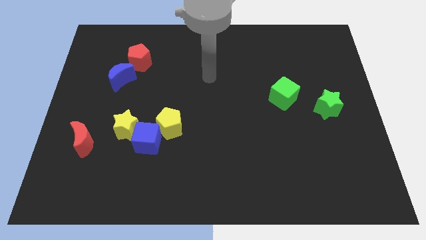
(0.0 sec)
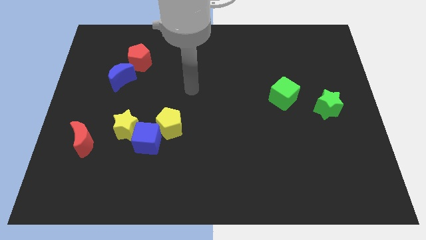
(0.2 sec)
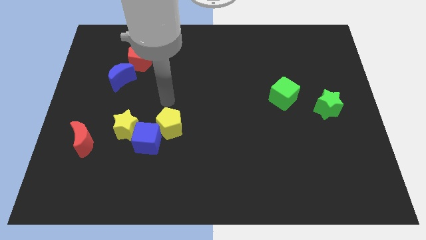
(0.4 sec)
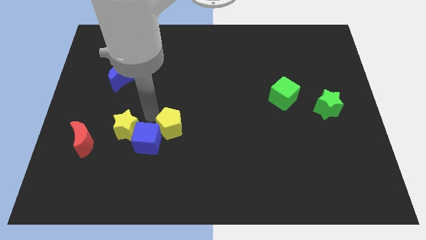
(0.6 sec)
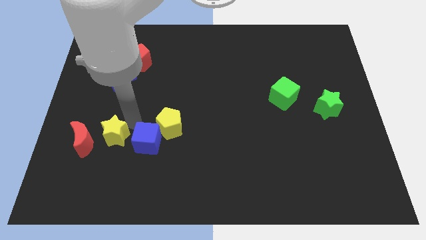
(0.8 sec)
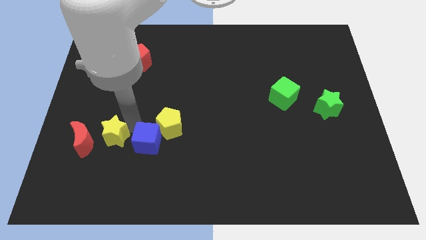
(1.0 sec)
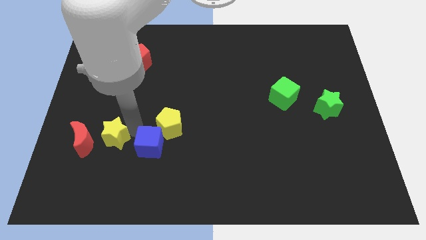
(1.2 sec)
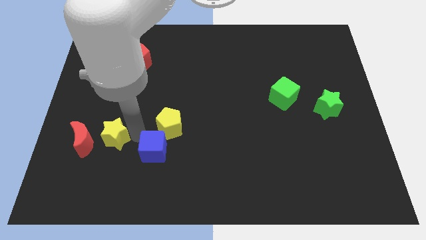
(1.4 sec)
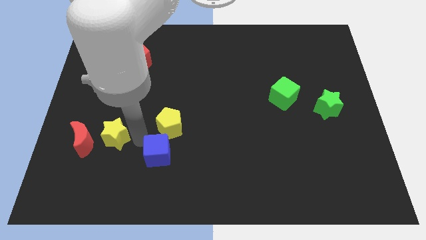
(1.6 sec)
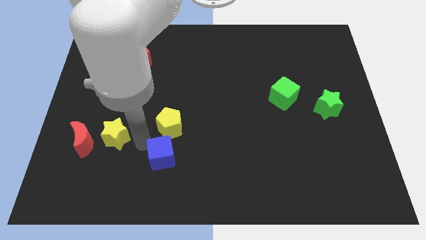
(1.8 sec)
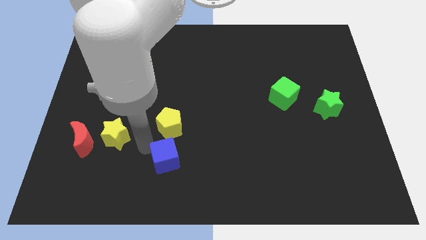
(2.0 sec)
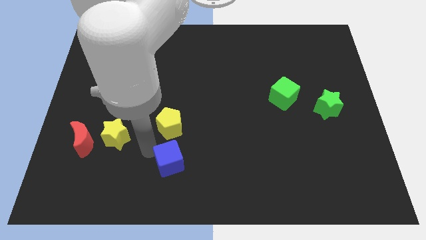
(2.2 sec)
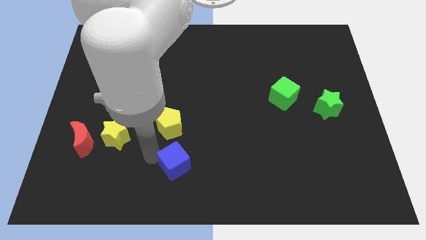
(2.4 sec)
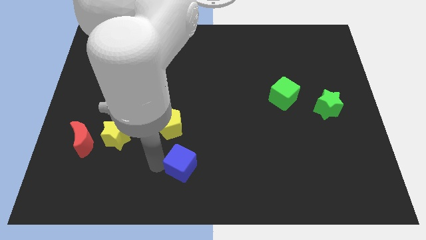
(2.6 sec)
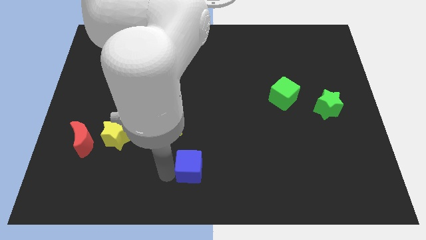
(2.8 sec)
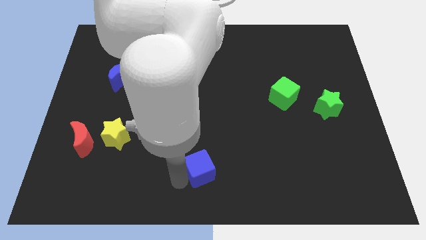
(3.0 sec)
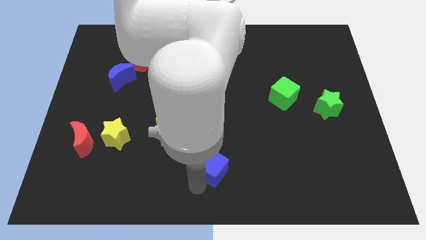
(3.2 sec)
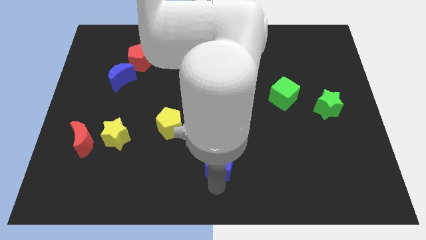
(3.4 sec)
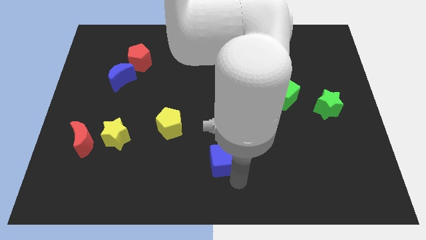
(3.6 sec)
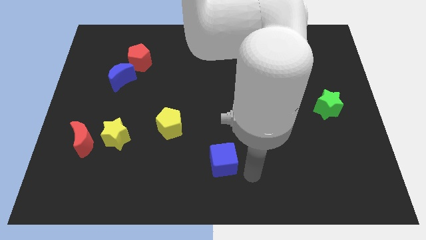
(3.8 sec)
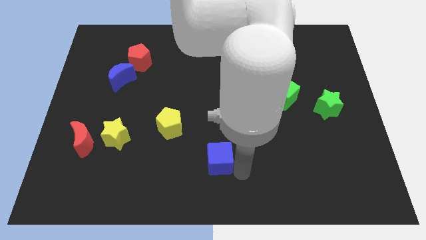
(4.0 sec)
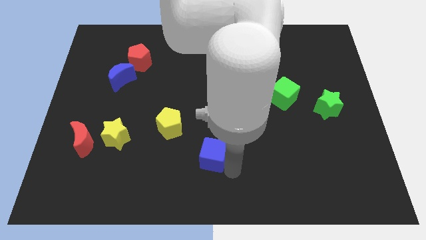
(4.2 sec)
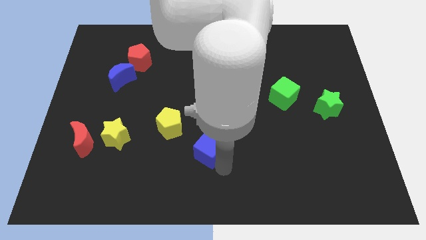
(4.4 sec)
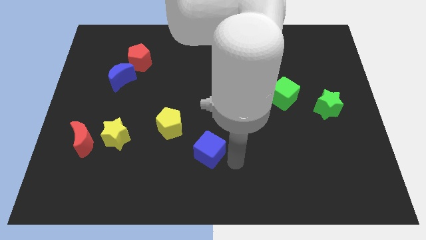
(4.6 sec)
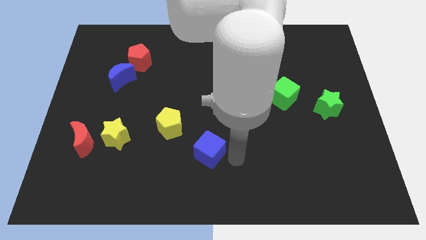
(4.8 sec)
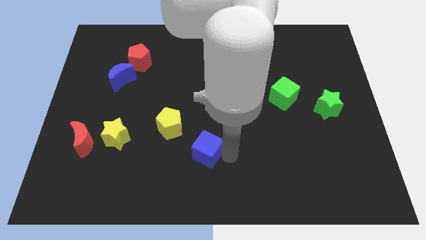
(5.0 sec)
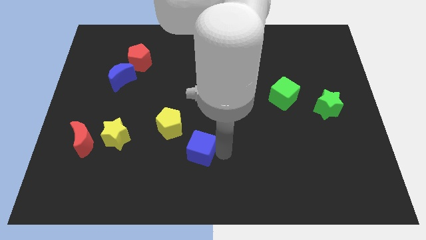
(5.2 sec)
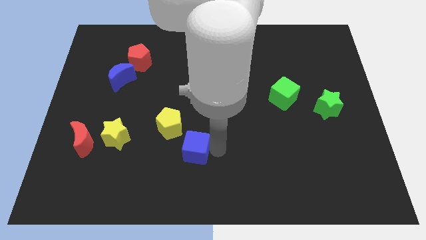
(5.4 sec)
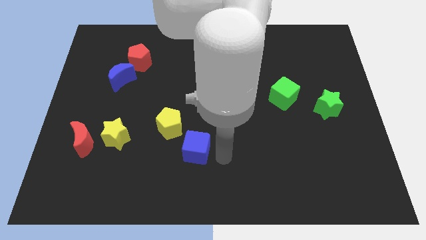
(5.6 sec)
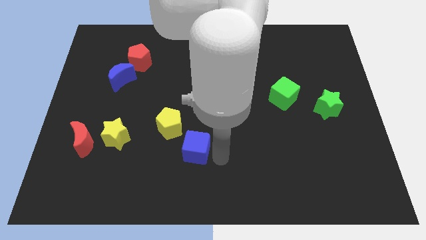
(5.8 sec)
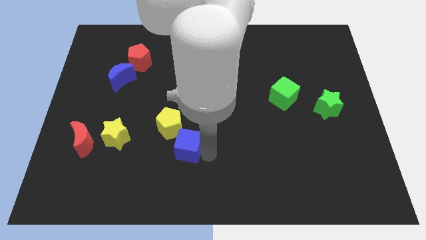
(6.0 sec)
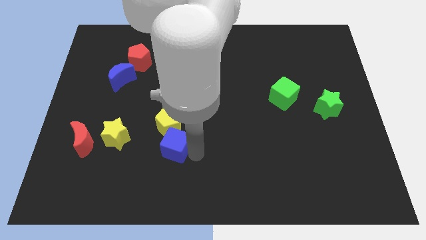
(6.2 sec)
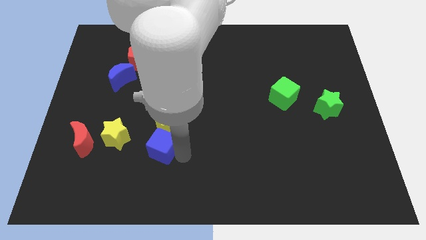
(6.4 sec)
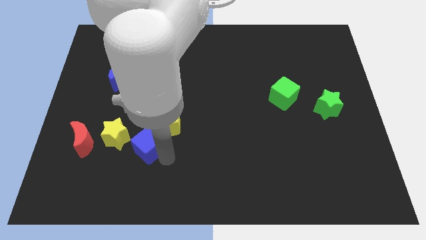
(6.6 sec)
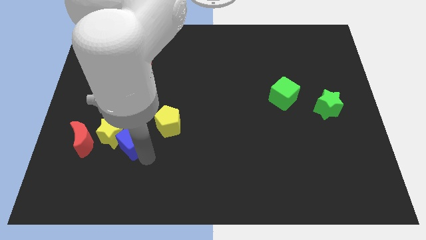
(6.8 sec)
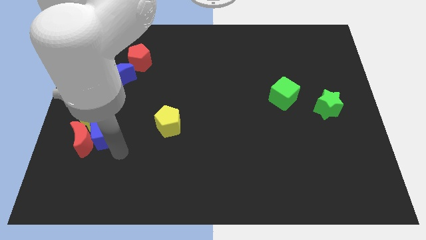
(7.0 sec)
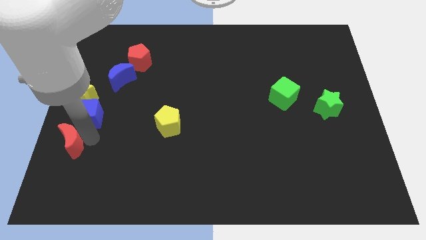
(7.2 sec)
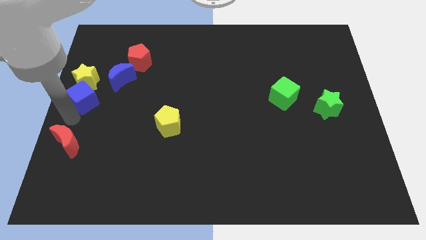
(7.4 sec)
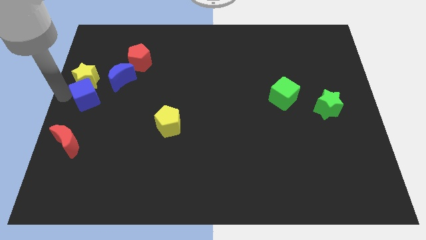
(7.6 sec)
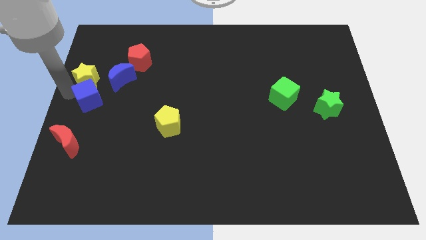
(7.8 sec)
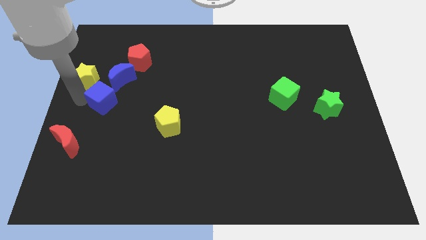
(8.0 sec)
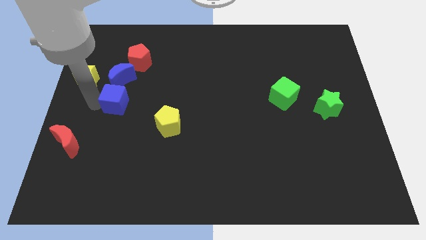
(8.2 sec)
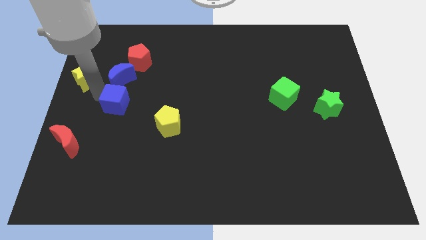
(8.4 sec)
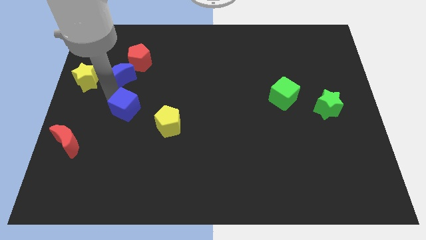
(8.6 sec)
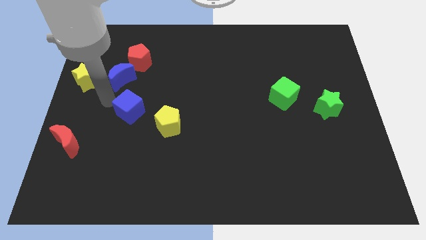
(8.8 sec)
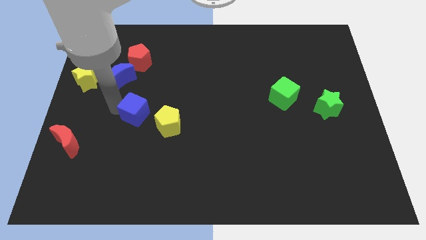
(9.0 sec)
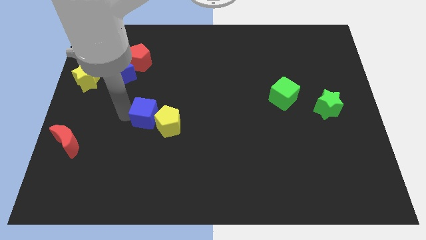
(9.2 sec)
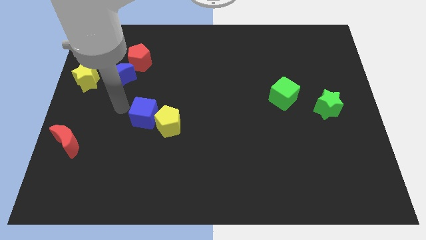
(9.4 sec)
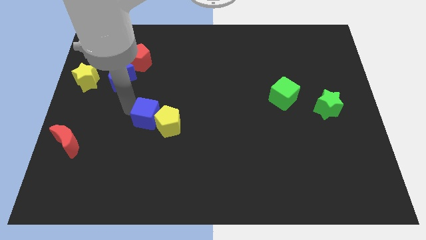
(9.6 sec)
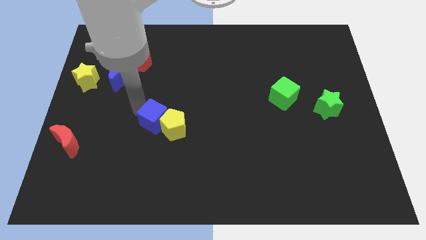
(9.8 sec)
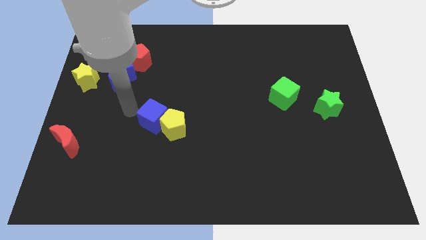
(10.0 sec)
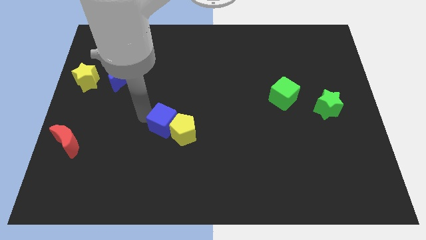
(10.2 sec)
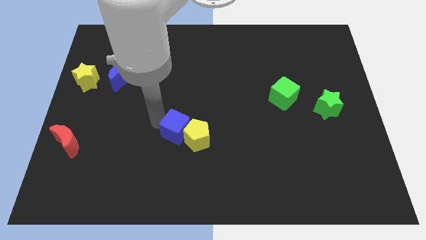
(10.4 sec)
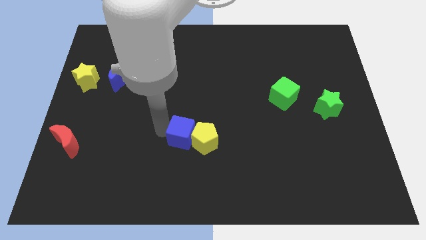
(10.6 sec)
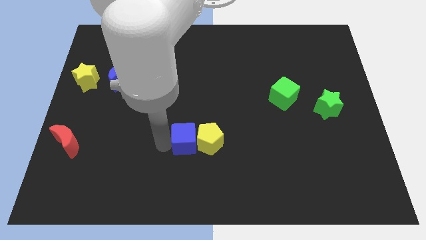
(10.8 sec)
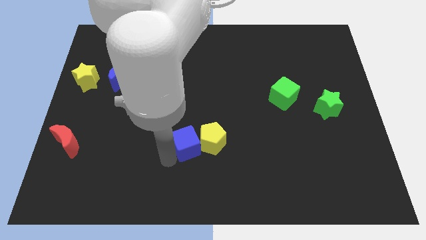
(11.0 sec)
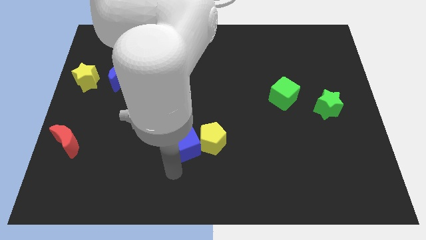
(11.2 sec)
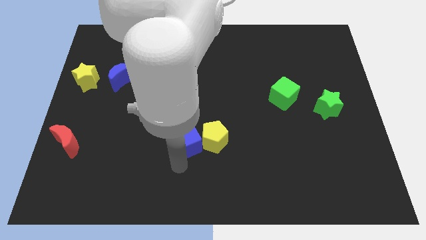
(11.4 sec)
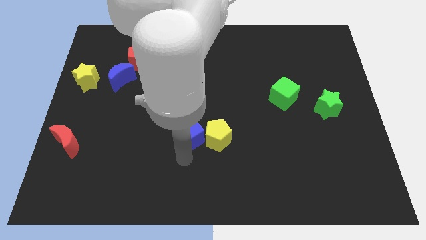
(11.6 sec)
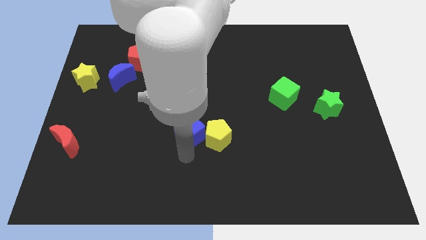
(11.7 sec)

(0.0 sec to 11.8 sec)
slightly move the blue cube up and to the right diagonally

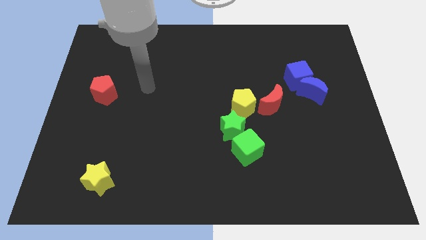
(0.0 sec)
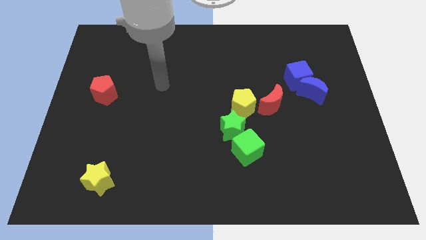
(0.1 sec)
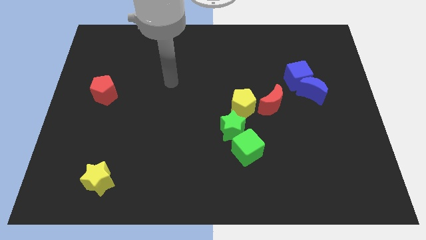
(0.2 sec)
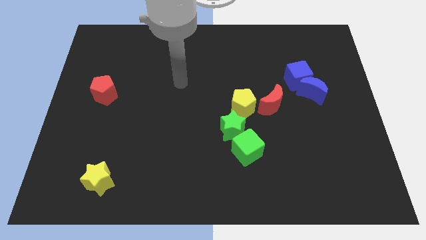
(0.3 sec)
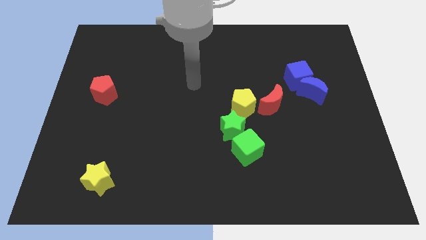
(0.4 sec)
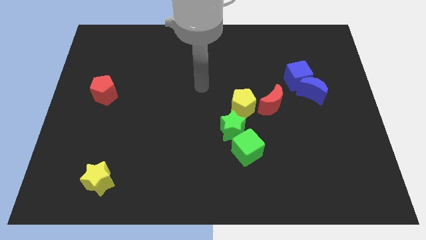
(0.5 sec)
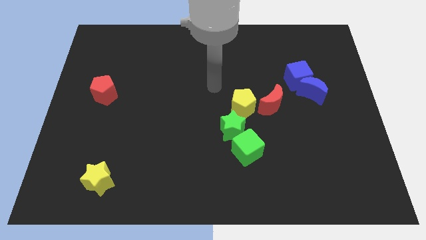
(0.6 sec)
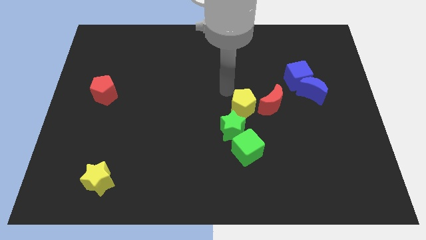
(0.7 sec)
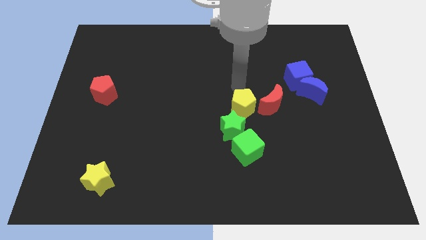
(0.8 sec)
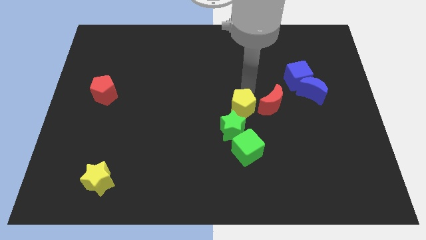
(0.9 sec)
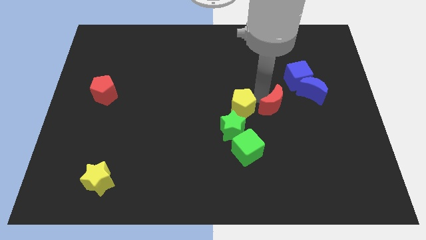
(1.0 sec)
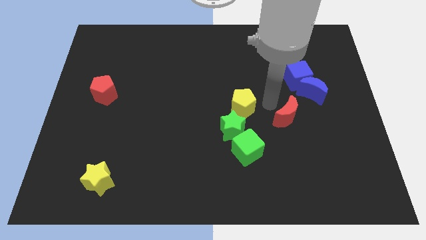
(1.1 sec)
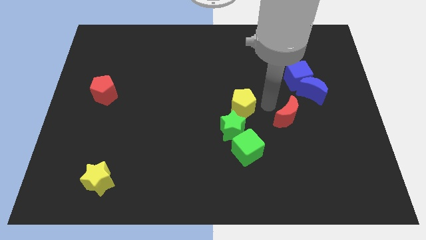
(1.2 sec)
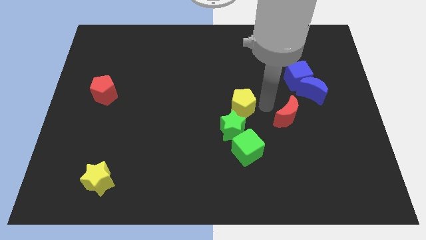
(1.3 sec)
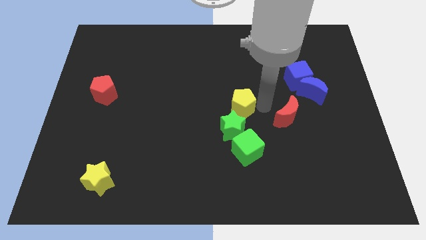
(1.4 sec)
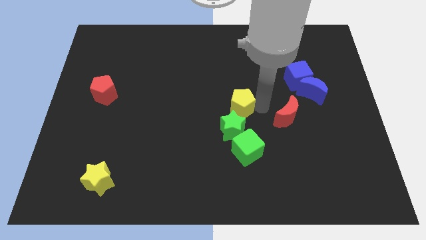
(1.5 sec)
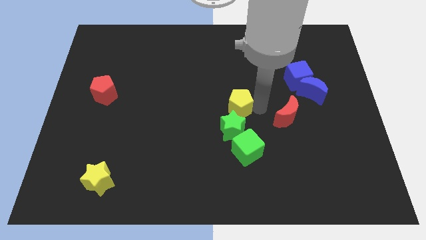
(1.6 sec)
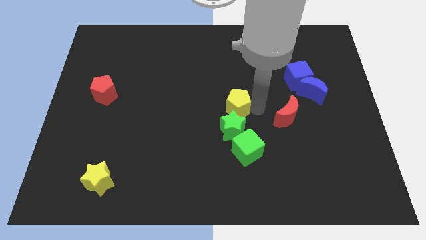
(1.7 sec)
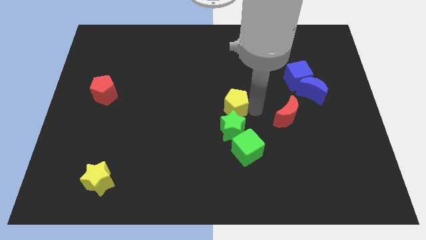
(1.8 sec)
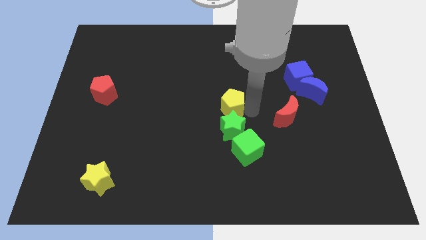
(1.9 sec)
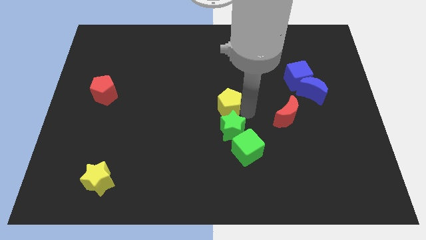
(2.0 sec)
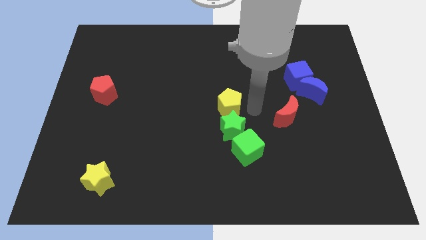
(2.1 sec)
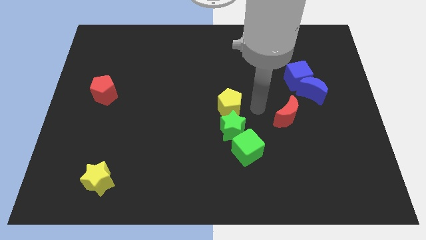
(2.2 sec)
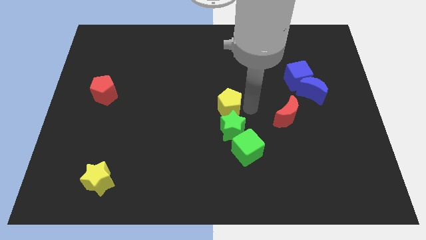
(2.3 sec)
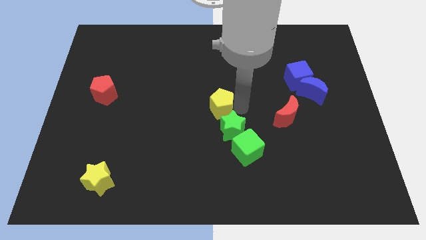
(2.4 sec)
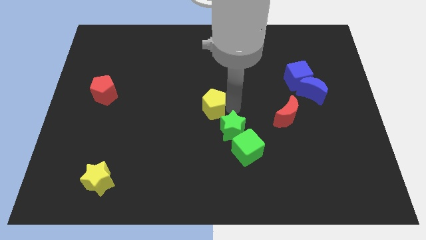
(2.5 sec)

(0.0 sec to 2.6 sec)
push the yellow pentagon to the left a little
